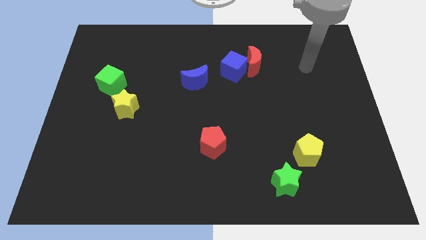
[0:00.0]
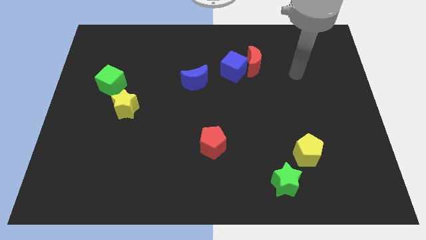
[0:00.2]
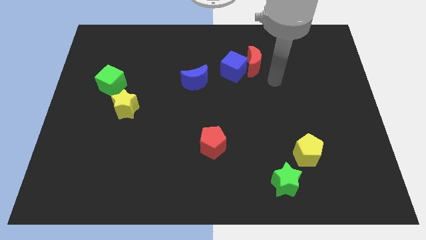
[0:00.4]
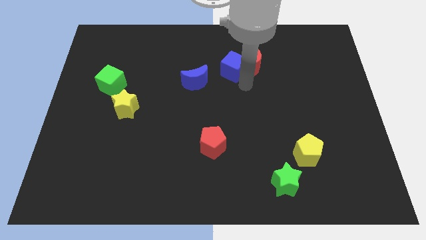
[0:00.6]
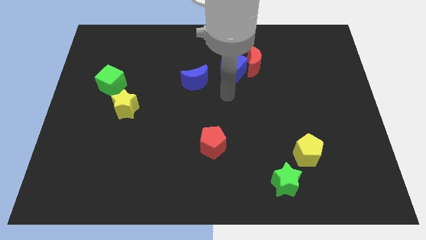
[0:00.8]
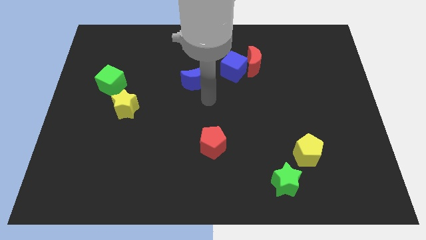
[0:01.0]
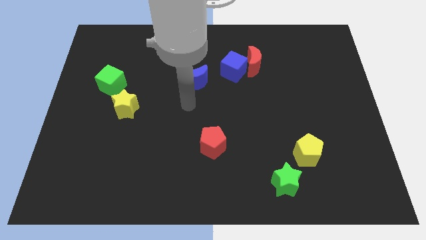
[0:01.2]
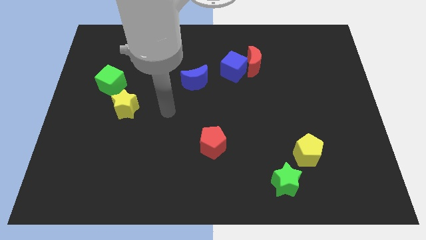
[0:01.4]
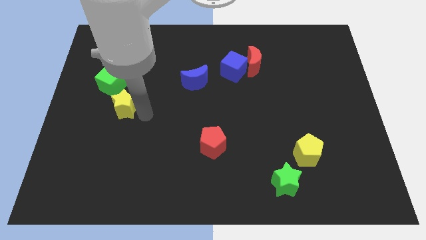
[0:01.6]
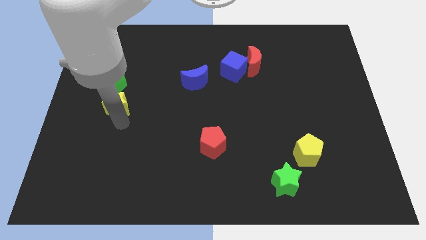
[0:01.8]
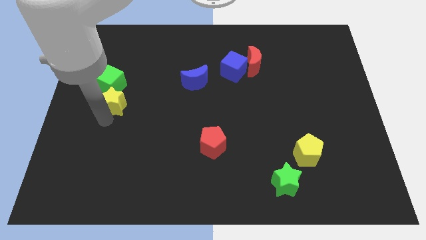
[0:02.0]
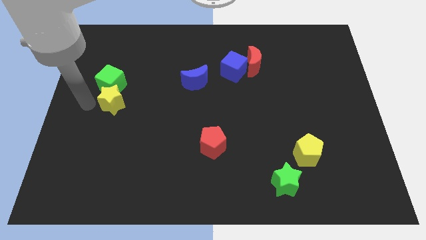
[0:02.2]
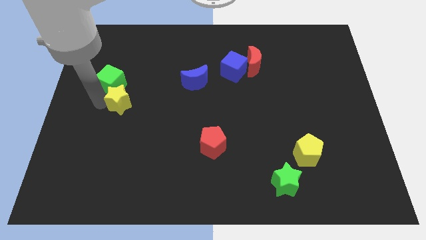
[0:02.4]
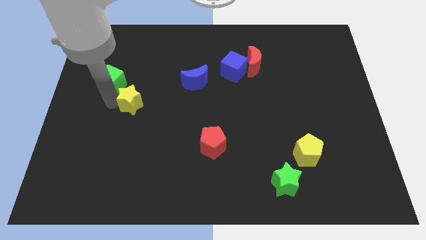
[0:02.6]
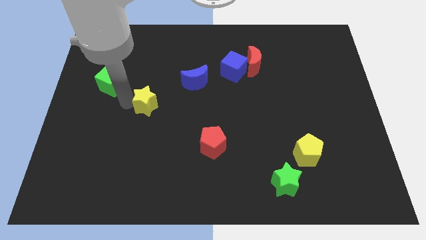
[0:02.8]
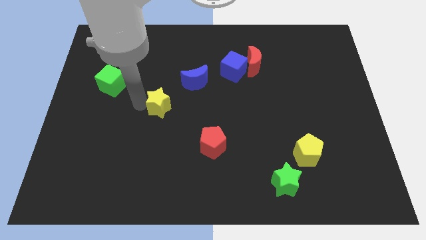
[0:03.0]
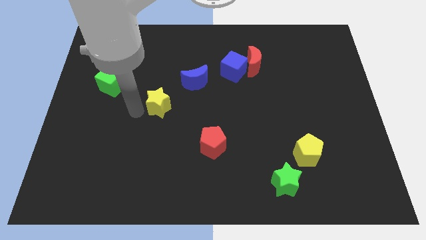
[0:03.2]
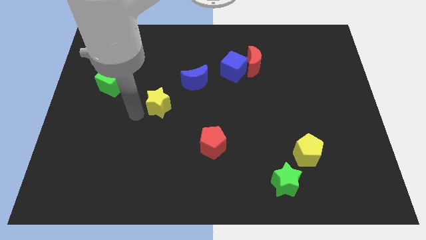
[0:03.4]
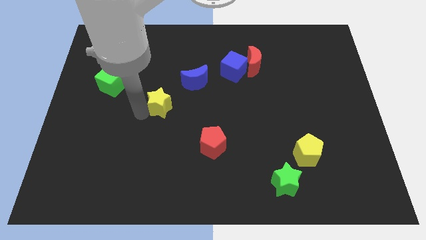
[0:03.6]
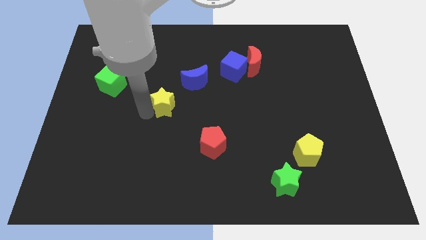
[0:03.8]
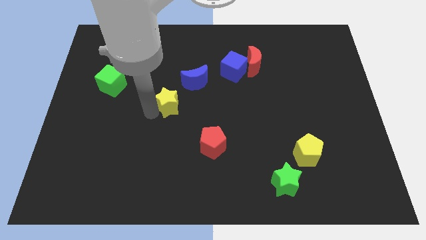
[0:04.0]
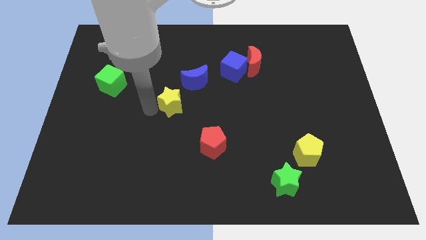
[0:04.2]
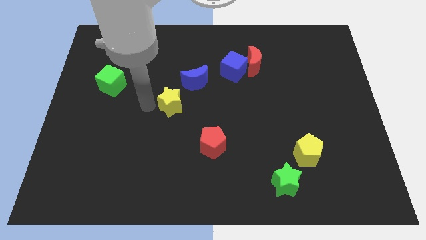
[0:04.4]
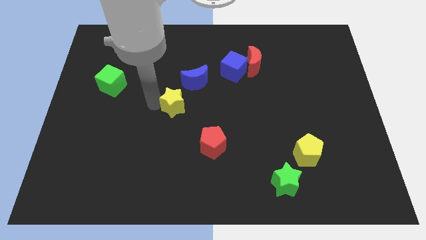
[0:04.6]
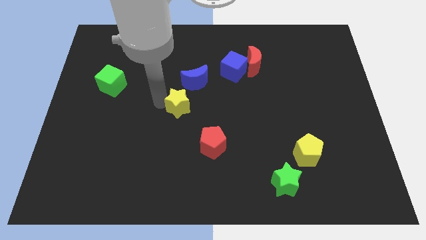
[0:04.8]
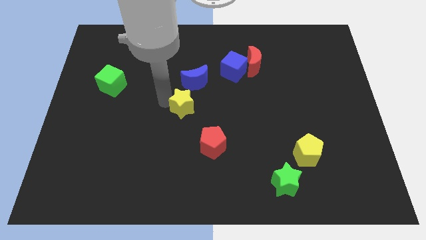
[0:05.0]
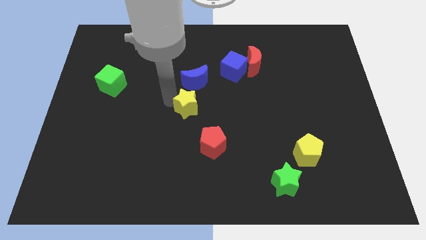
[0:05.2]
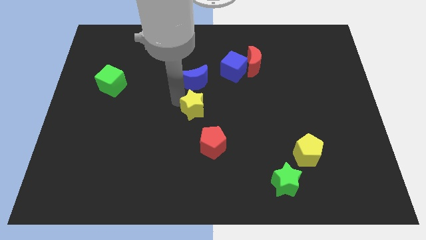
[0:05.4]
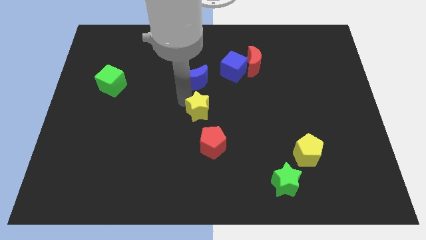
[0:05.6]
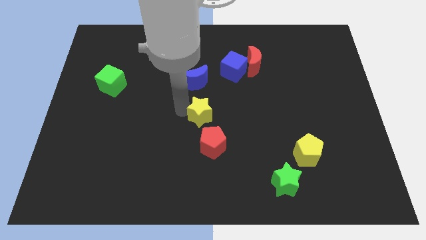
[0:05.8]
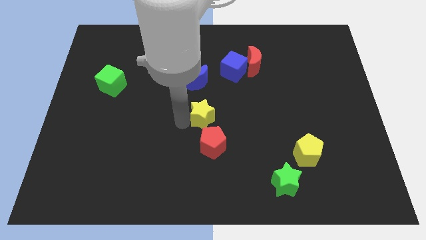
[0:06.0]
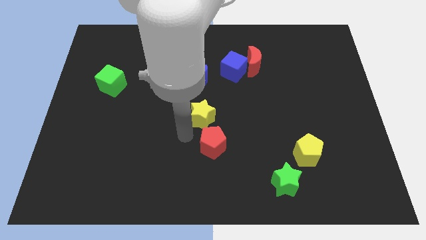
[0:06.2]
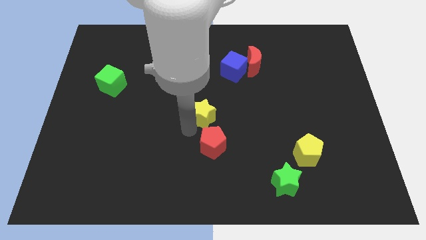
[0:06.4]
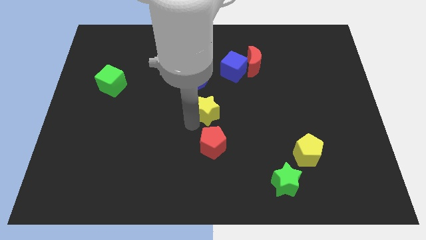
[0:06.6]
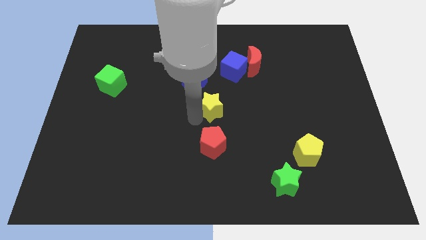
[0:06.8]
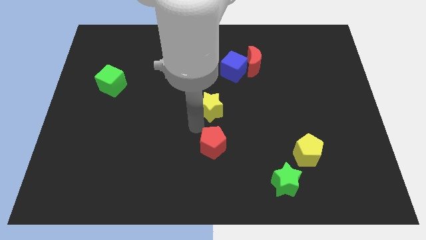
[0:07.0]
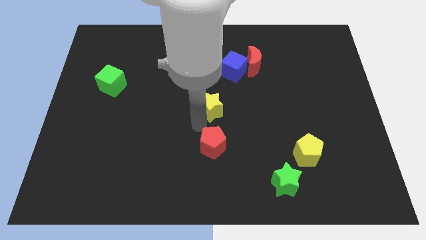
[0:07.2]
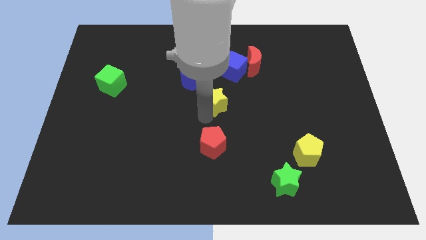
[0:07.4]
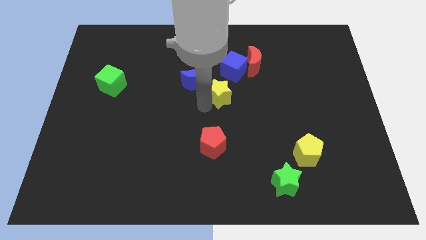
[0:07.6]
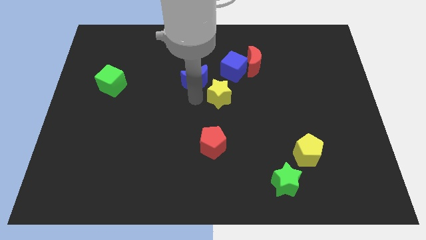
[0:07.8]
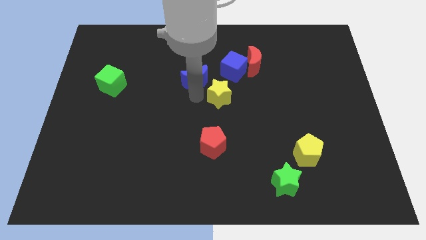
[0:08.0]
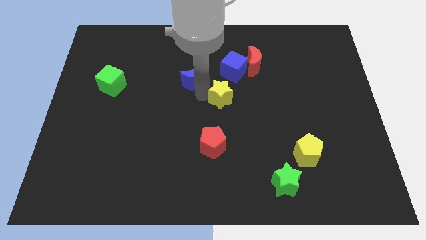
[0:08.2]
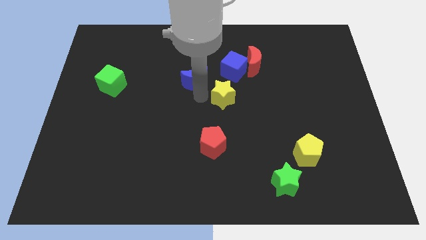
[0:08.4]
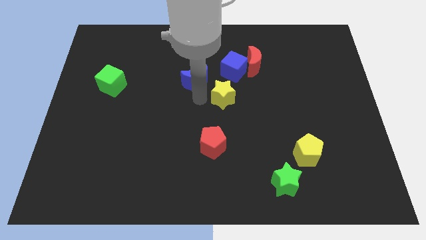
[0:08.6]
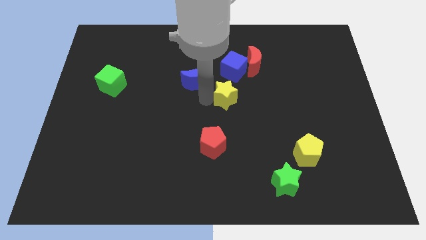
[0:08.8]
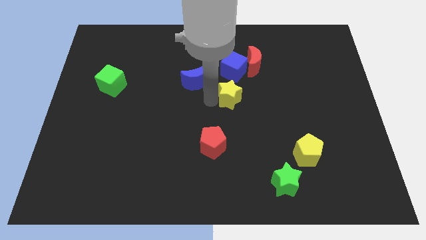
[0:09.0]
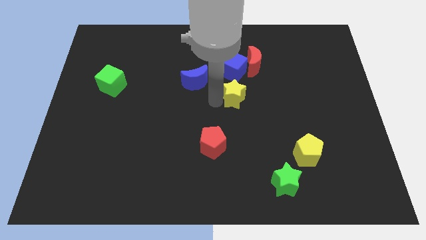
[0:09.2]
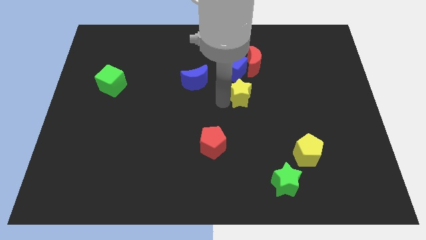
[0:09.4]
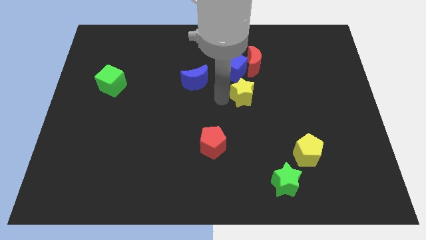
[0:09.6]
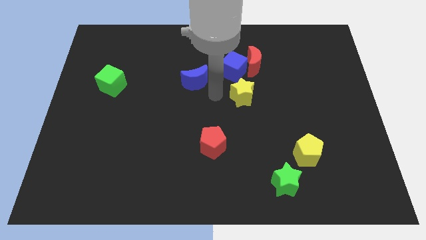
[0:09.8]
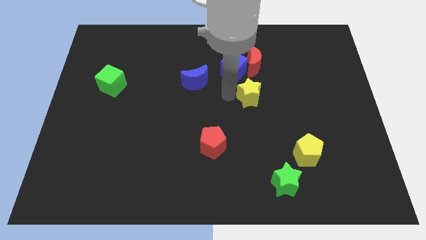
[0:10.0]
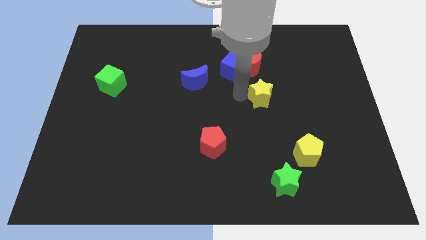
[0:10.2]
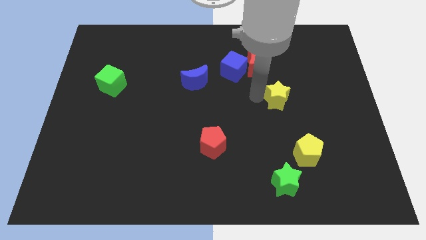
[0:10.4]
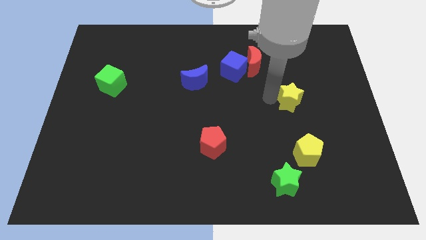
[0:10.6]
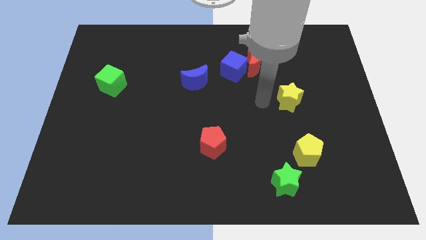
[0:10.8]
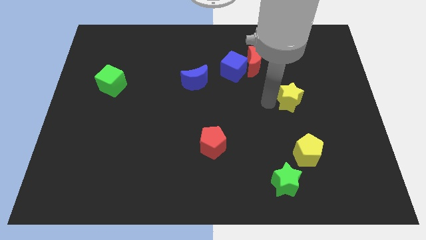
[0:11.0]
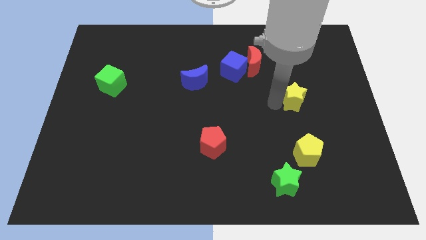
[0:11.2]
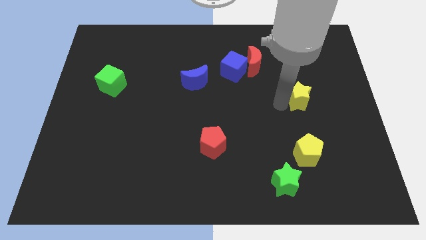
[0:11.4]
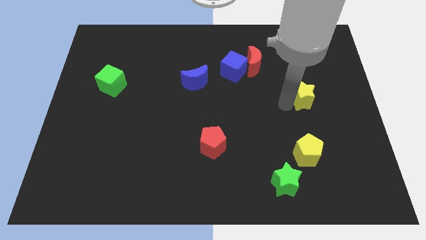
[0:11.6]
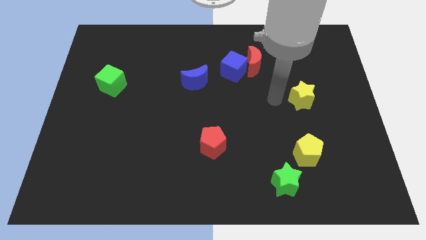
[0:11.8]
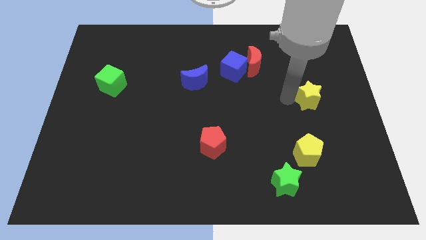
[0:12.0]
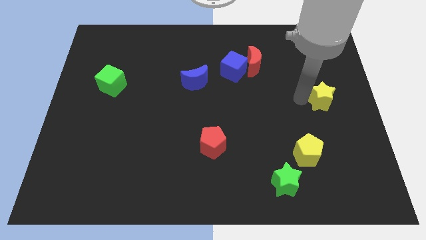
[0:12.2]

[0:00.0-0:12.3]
put the yellow star to the center right

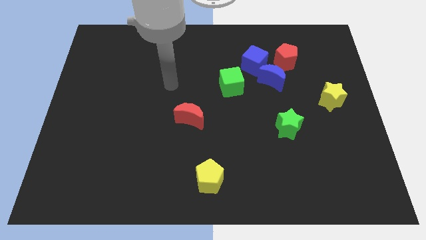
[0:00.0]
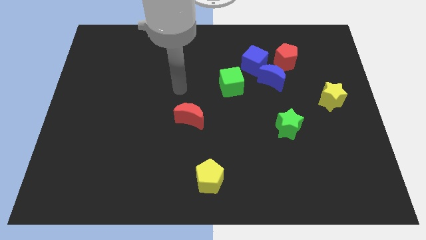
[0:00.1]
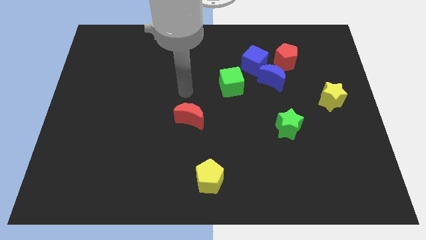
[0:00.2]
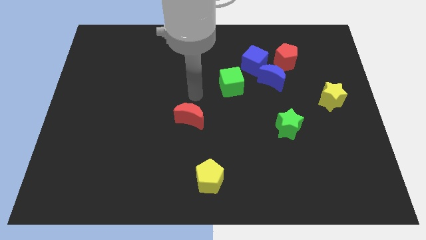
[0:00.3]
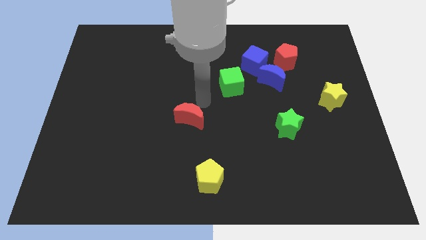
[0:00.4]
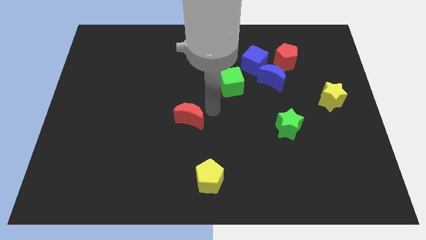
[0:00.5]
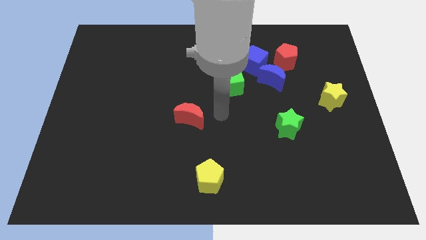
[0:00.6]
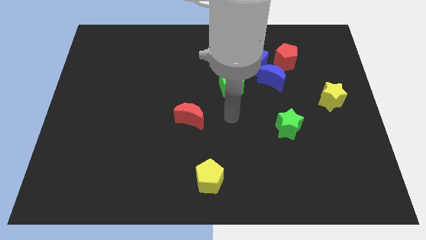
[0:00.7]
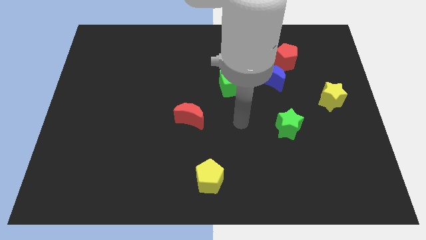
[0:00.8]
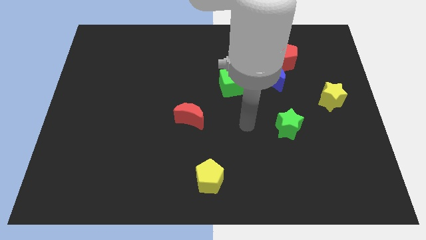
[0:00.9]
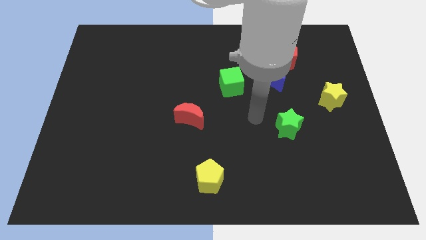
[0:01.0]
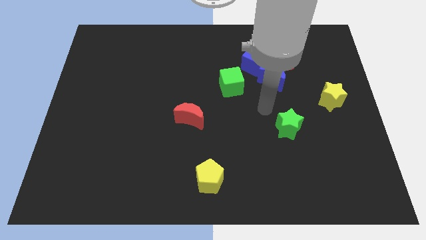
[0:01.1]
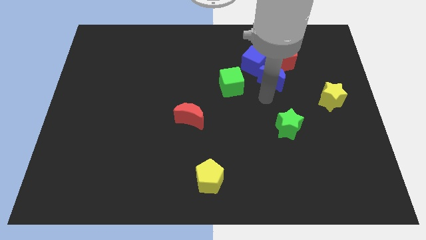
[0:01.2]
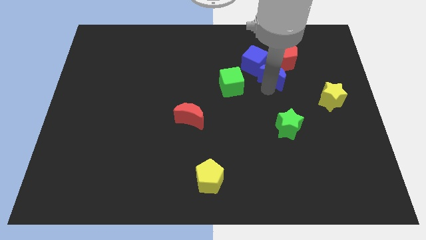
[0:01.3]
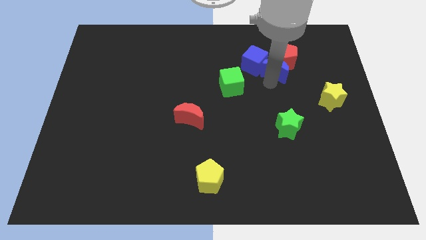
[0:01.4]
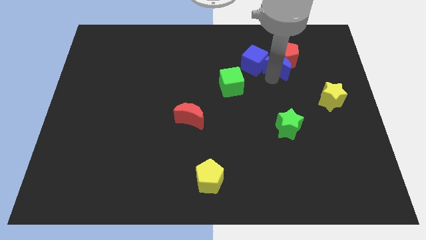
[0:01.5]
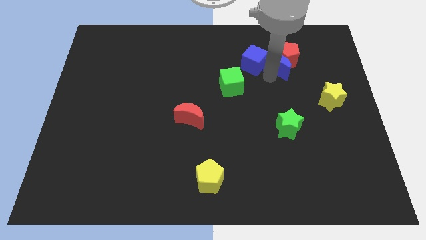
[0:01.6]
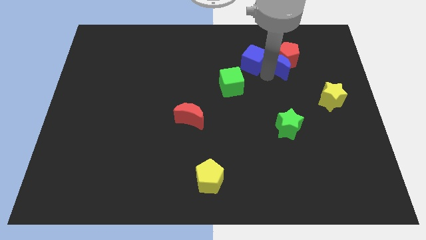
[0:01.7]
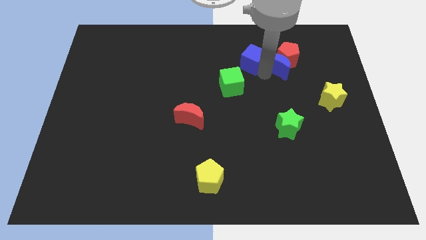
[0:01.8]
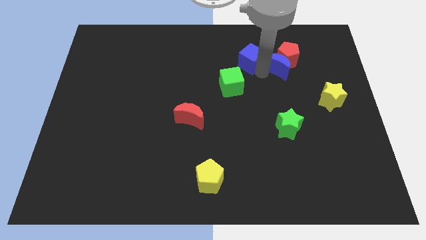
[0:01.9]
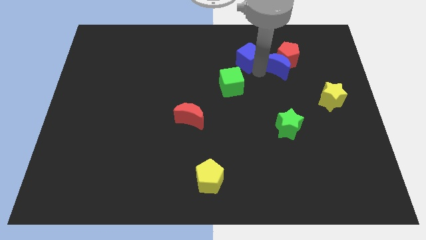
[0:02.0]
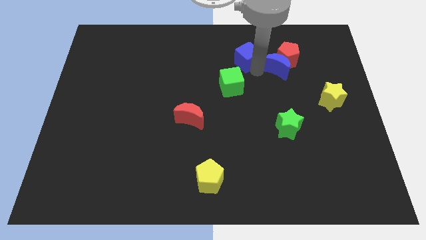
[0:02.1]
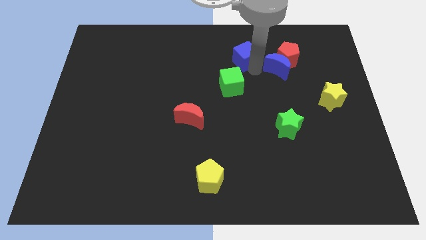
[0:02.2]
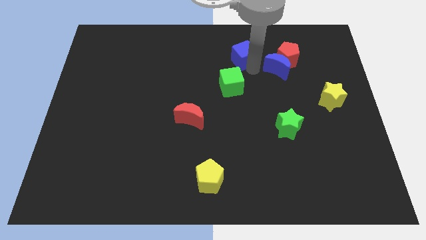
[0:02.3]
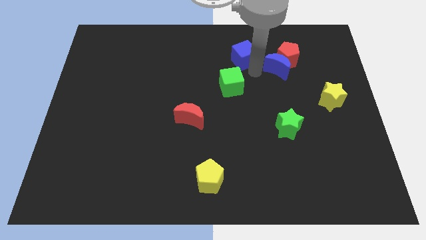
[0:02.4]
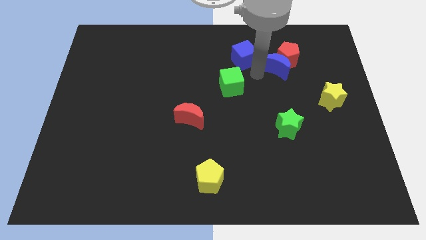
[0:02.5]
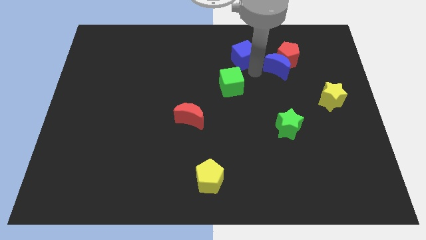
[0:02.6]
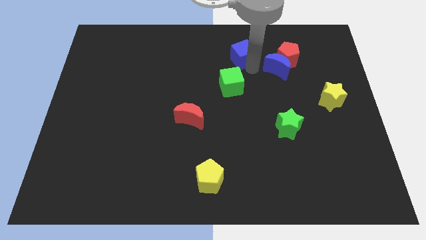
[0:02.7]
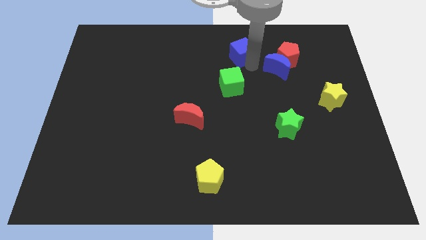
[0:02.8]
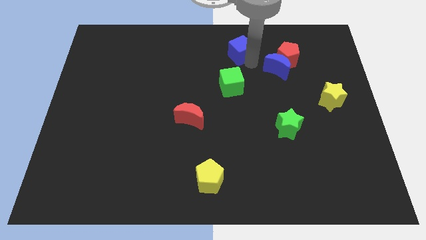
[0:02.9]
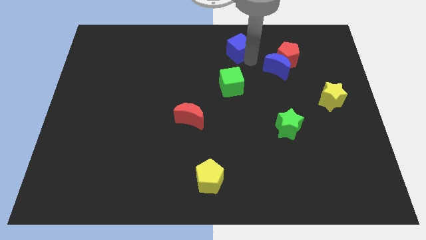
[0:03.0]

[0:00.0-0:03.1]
push the blue cube to the top
